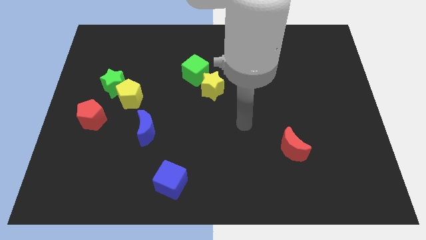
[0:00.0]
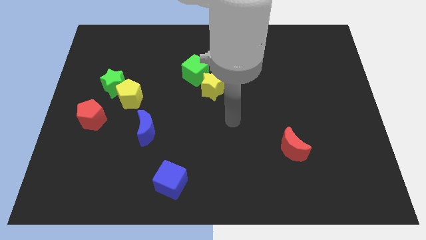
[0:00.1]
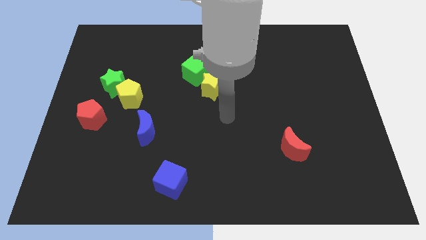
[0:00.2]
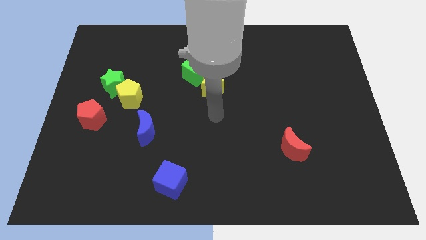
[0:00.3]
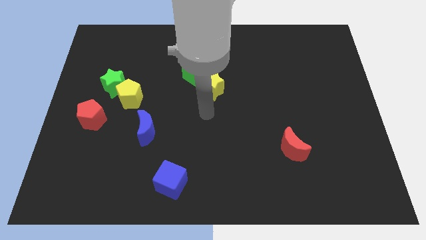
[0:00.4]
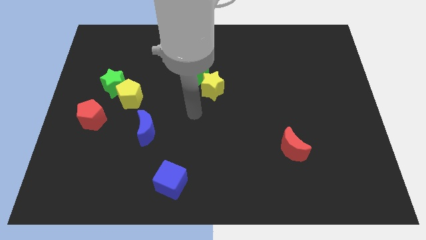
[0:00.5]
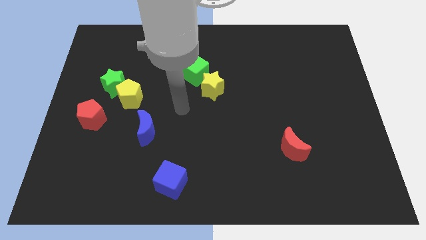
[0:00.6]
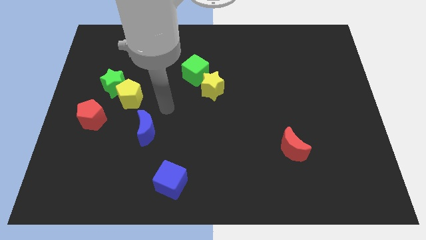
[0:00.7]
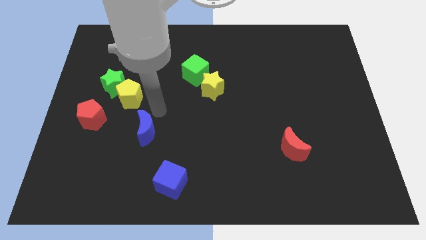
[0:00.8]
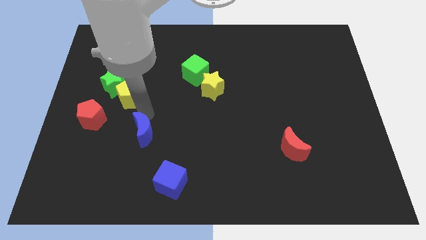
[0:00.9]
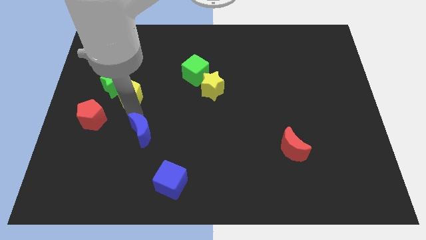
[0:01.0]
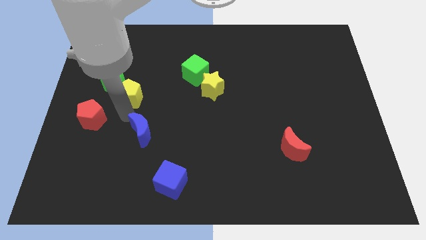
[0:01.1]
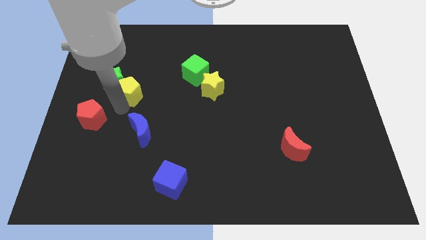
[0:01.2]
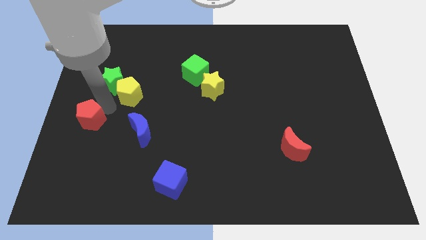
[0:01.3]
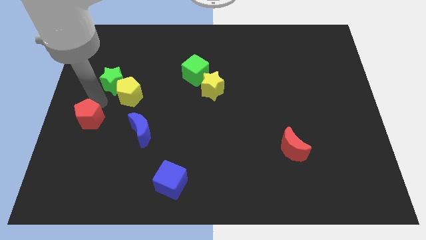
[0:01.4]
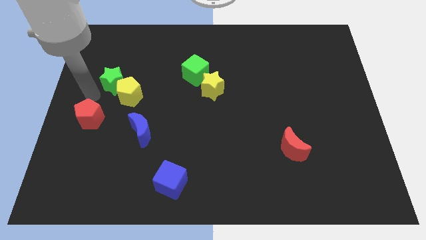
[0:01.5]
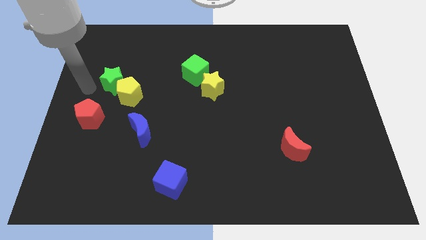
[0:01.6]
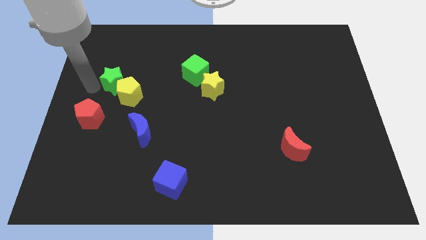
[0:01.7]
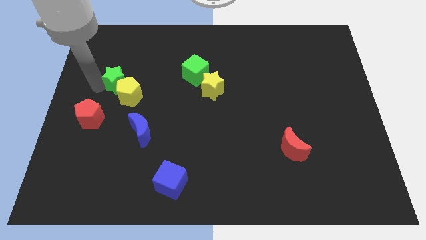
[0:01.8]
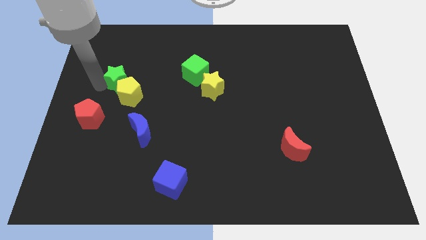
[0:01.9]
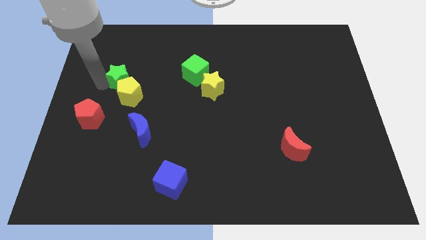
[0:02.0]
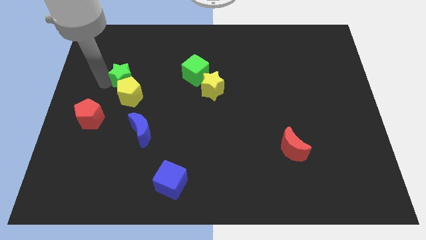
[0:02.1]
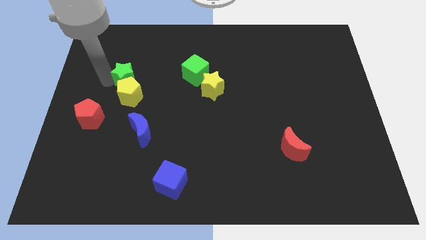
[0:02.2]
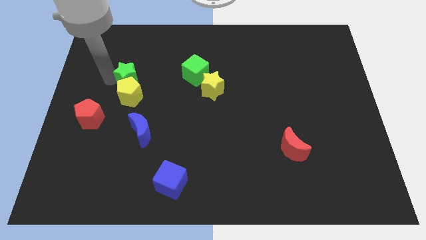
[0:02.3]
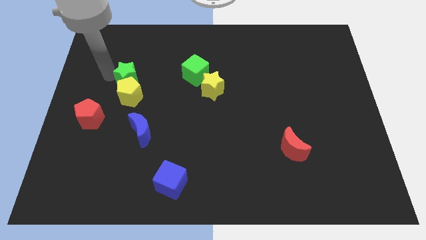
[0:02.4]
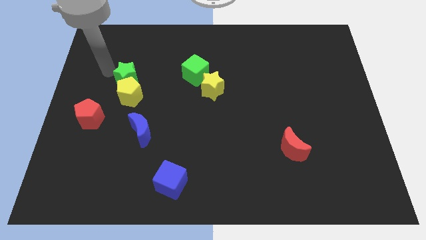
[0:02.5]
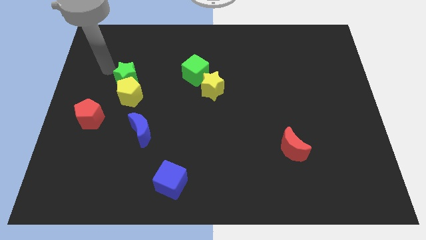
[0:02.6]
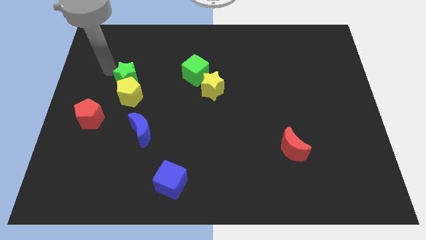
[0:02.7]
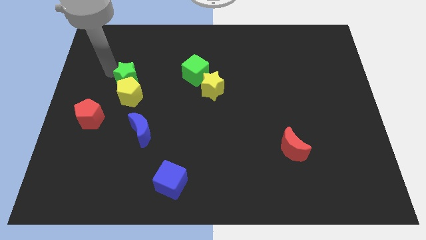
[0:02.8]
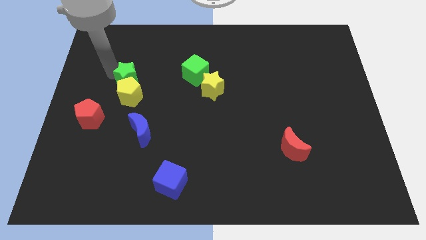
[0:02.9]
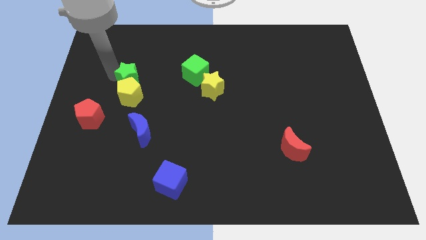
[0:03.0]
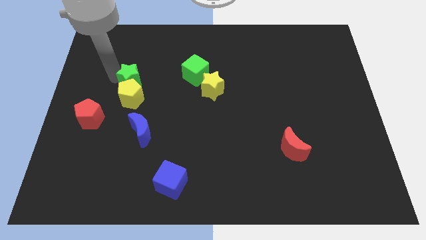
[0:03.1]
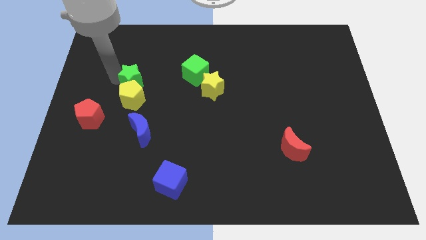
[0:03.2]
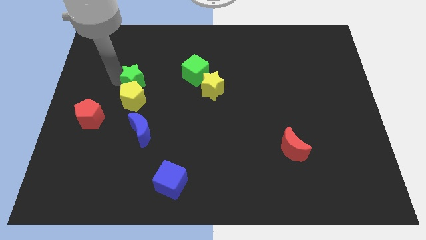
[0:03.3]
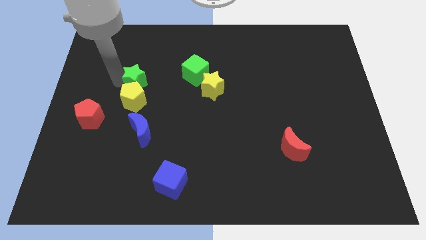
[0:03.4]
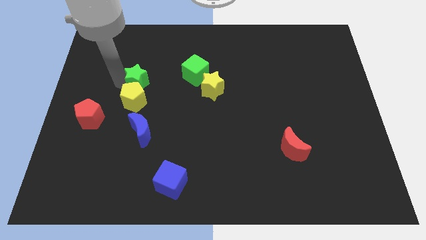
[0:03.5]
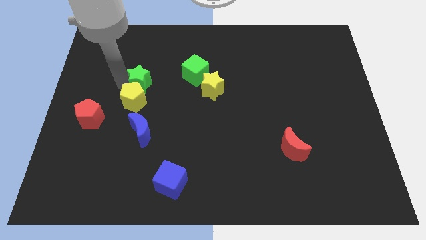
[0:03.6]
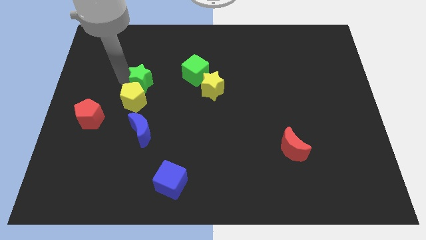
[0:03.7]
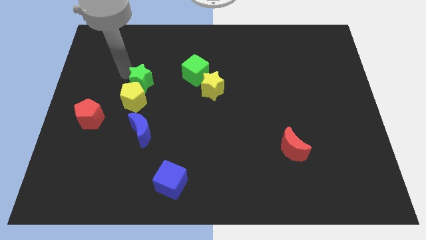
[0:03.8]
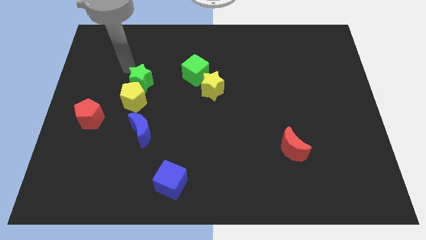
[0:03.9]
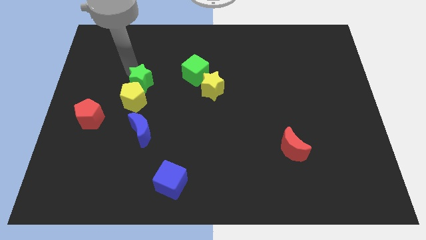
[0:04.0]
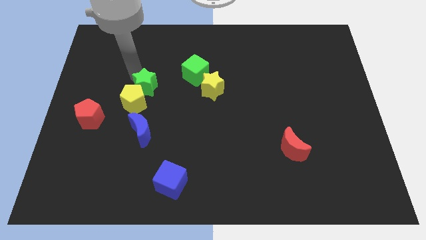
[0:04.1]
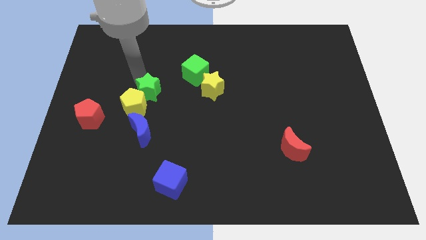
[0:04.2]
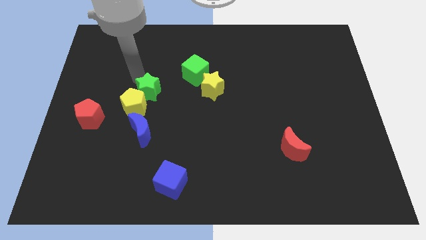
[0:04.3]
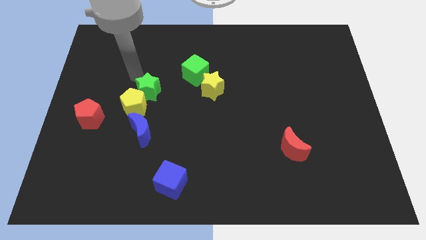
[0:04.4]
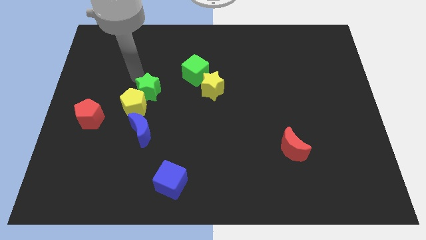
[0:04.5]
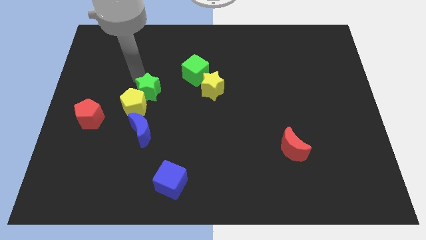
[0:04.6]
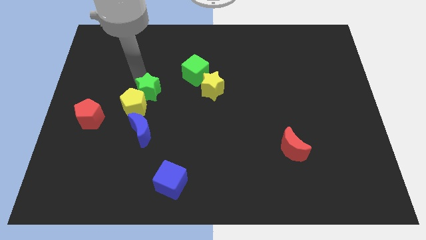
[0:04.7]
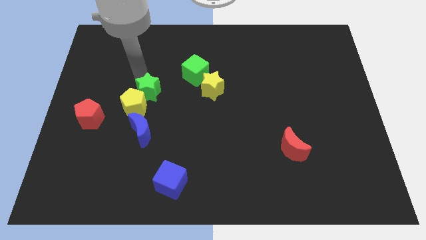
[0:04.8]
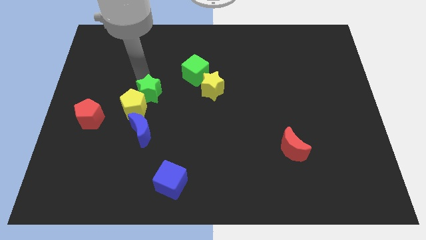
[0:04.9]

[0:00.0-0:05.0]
move the green star a little diagonally down and to the right

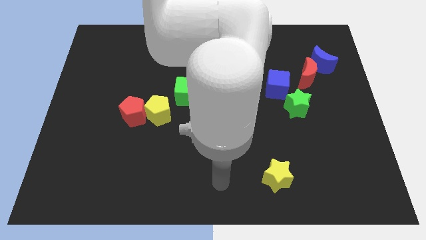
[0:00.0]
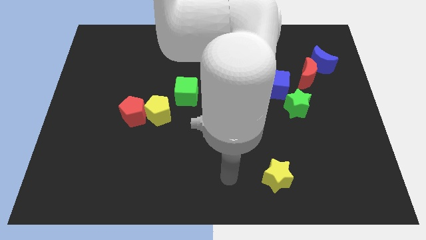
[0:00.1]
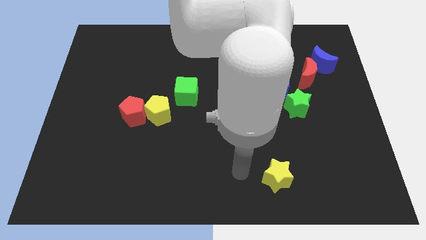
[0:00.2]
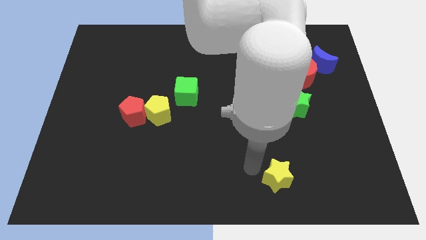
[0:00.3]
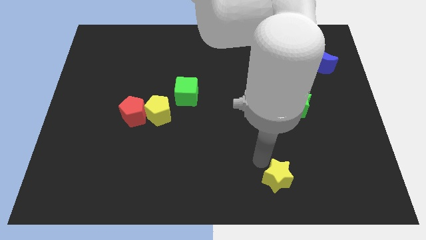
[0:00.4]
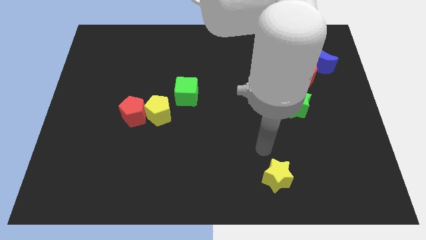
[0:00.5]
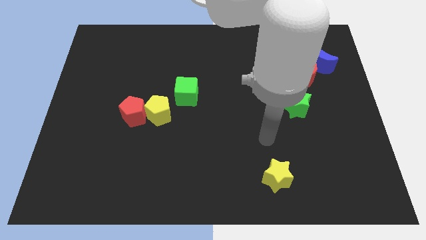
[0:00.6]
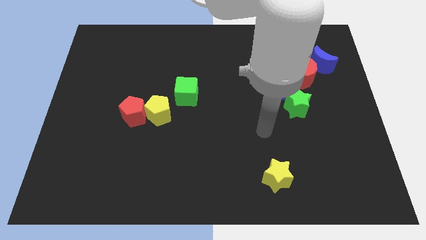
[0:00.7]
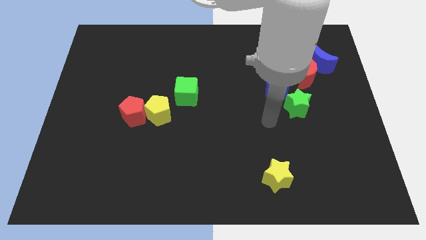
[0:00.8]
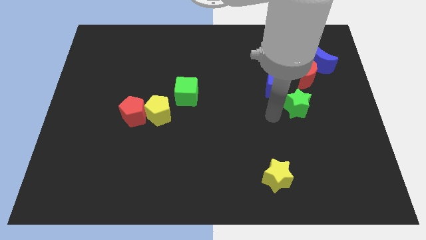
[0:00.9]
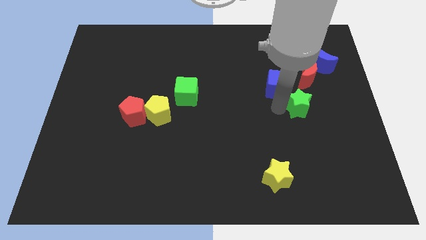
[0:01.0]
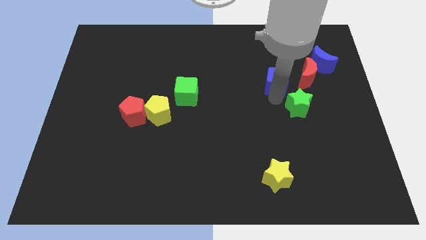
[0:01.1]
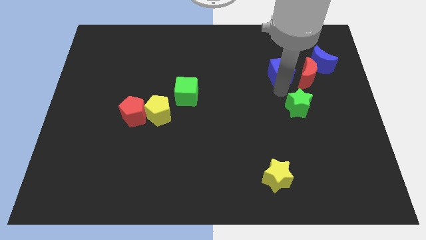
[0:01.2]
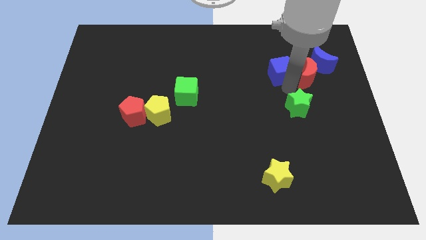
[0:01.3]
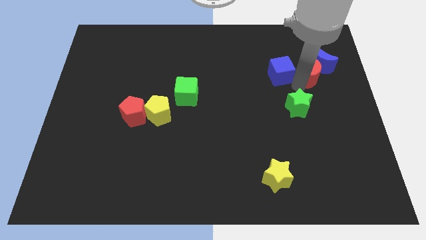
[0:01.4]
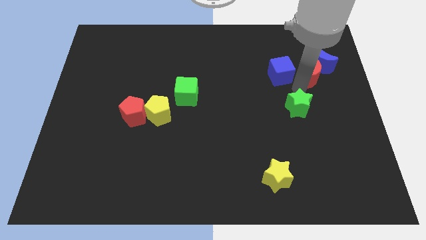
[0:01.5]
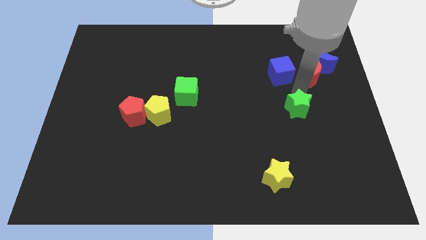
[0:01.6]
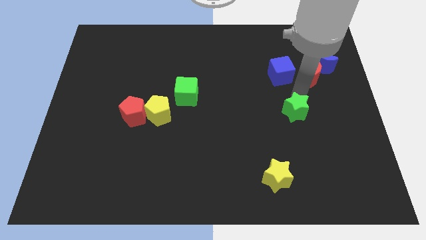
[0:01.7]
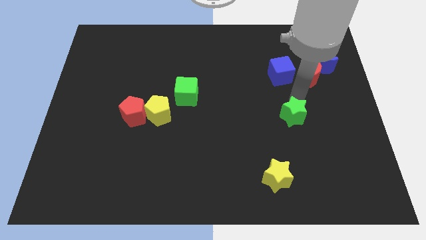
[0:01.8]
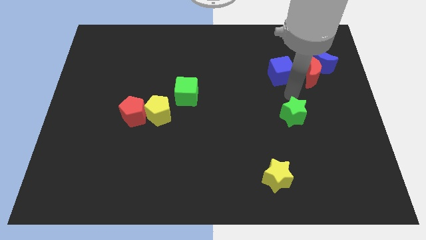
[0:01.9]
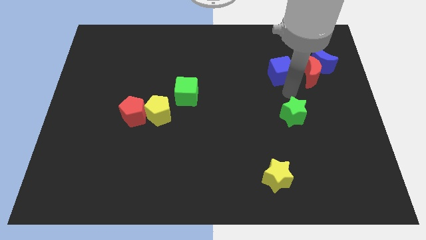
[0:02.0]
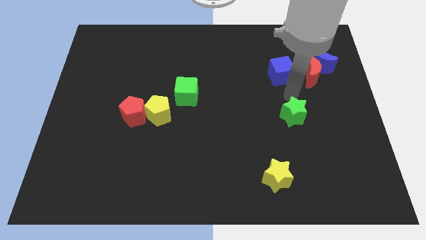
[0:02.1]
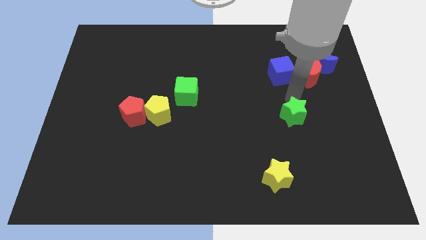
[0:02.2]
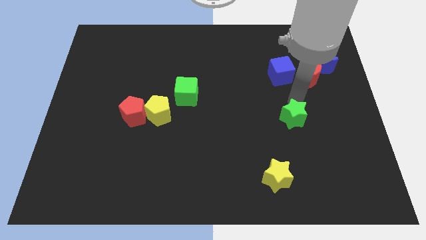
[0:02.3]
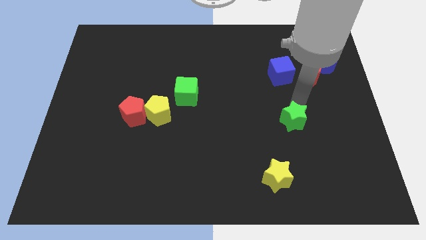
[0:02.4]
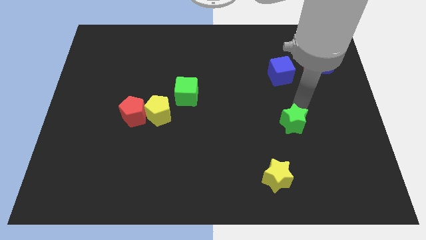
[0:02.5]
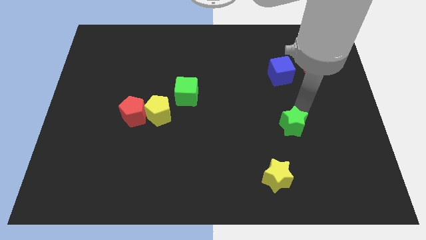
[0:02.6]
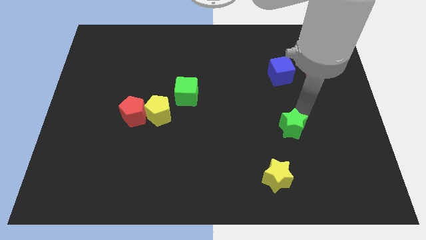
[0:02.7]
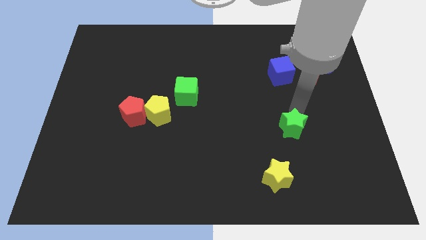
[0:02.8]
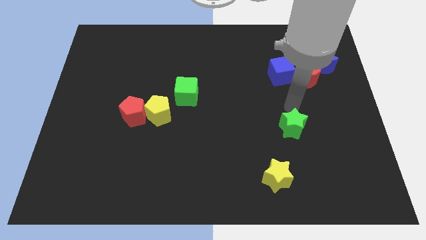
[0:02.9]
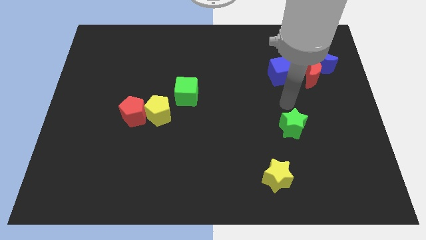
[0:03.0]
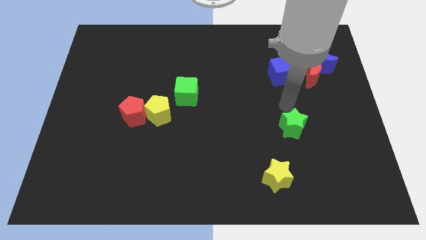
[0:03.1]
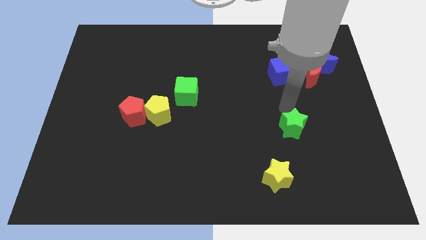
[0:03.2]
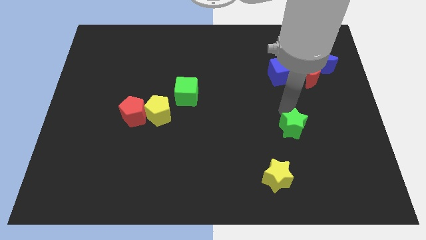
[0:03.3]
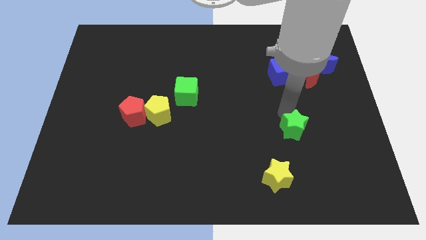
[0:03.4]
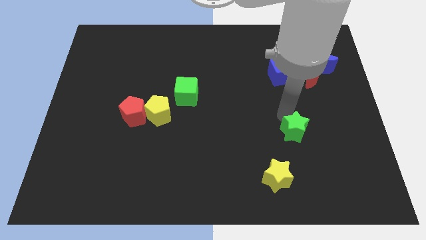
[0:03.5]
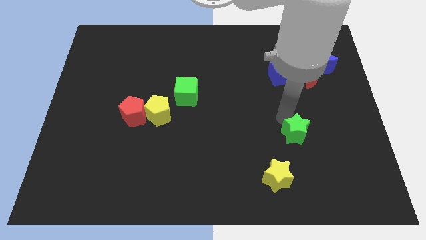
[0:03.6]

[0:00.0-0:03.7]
slightly push the green star down
